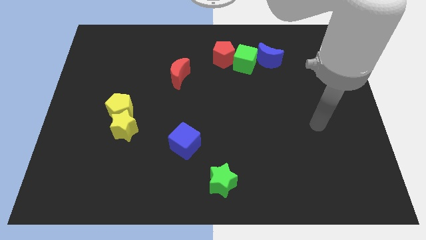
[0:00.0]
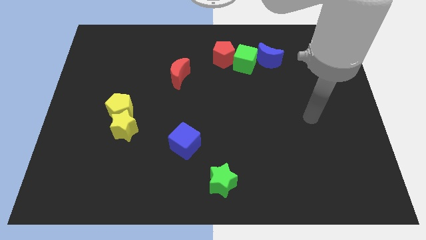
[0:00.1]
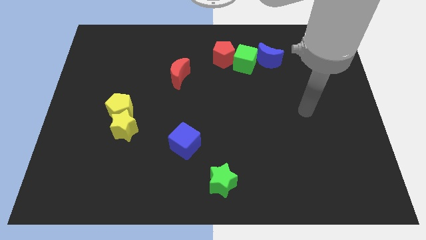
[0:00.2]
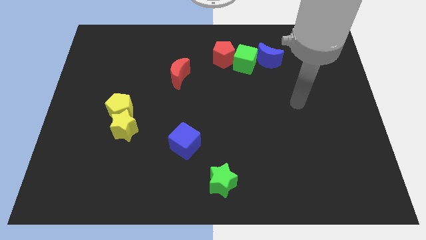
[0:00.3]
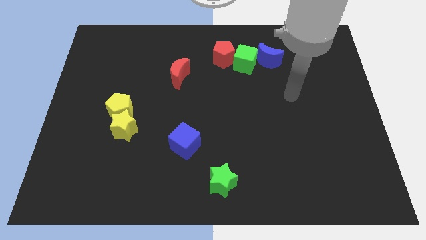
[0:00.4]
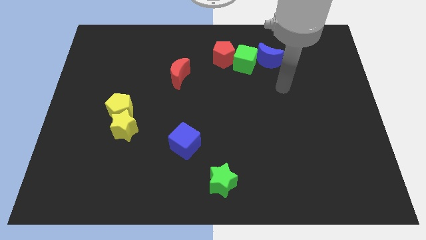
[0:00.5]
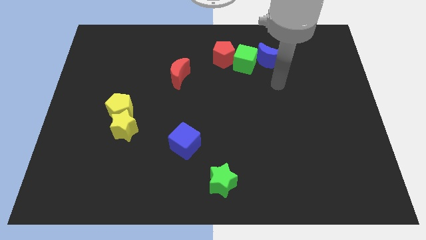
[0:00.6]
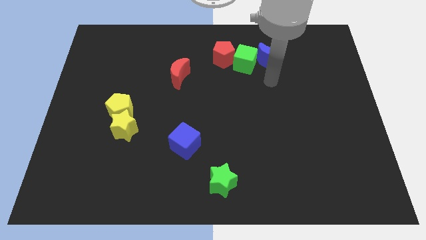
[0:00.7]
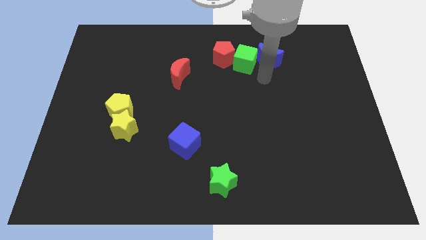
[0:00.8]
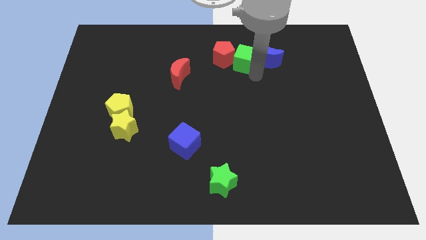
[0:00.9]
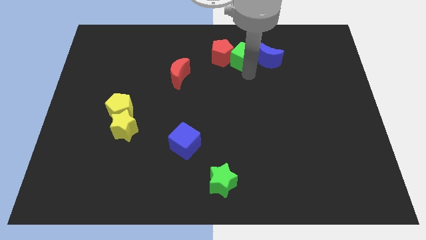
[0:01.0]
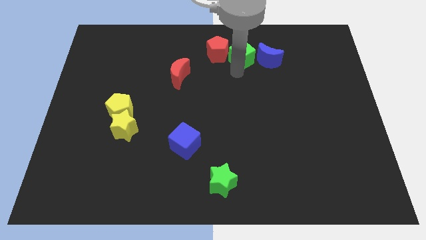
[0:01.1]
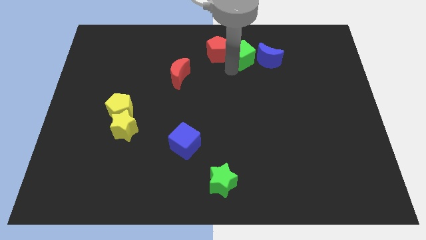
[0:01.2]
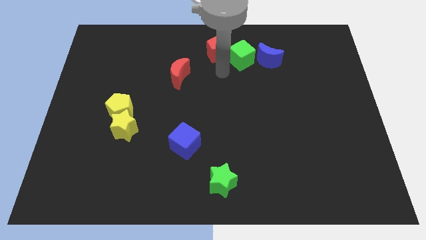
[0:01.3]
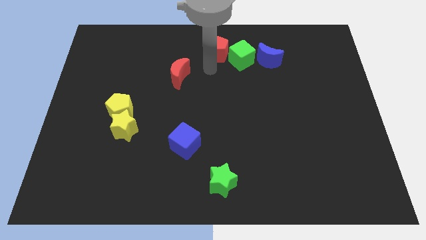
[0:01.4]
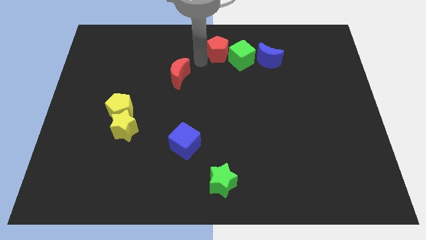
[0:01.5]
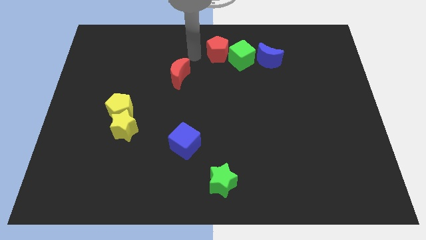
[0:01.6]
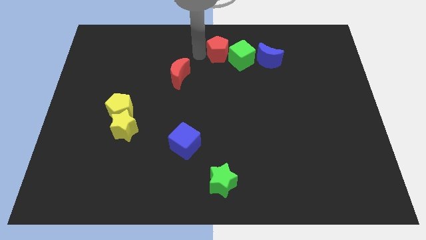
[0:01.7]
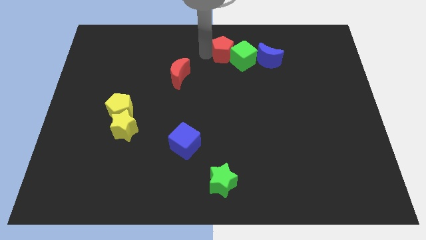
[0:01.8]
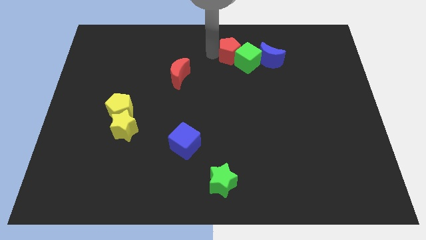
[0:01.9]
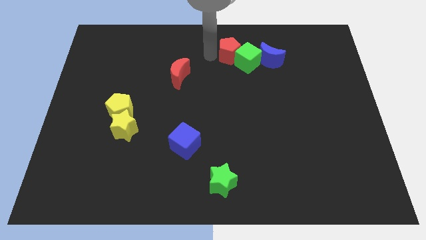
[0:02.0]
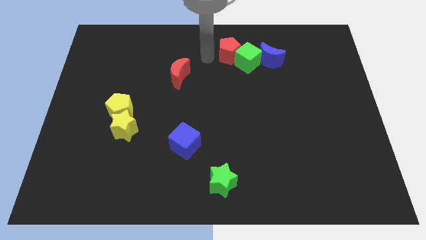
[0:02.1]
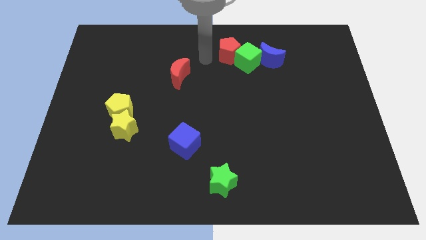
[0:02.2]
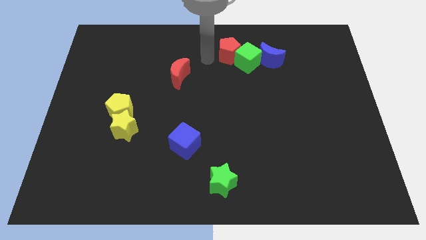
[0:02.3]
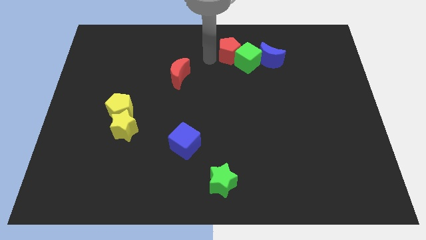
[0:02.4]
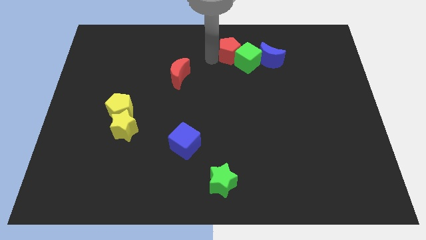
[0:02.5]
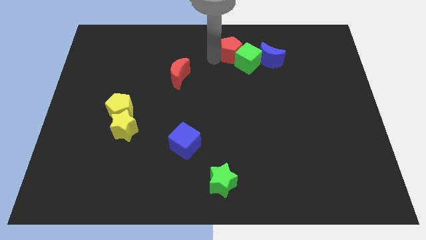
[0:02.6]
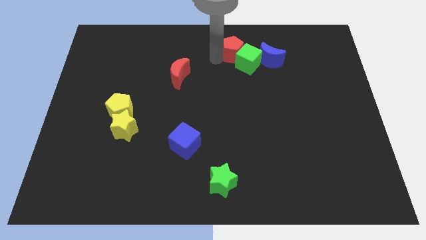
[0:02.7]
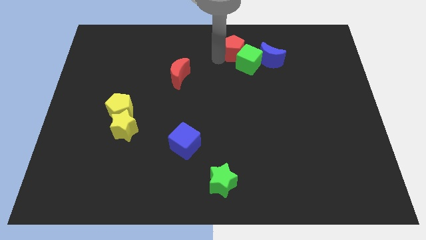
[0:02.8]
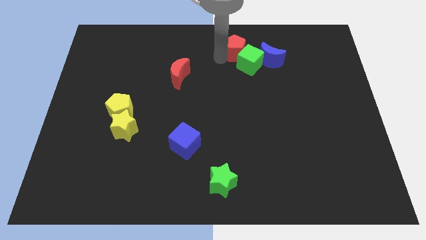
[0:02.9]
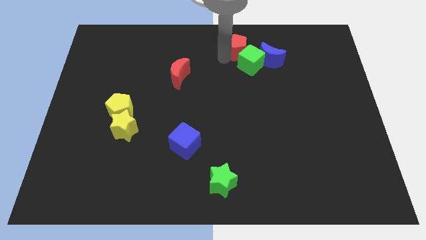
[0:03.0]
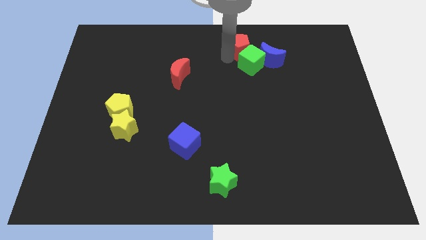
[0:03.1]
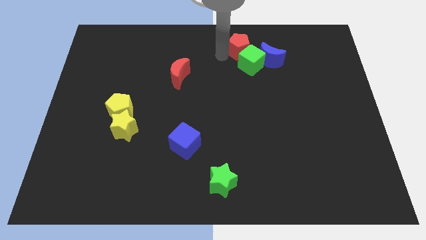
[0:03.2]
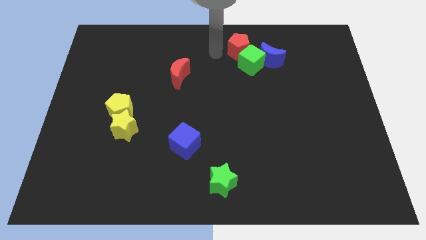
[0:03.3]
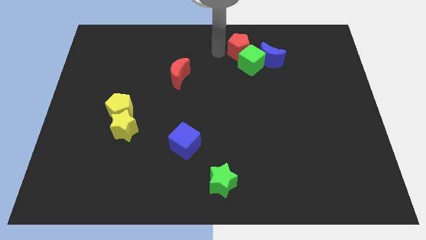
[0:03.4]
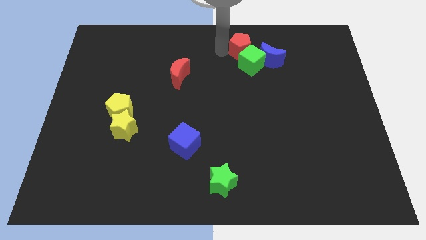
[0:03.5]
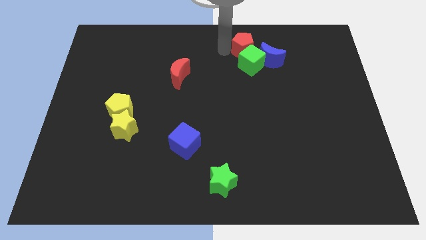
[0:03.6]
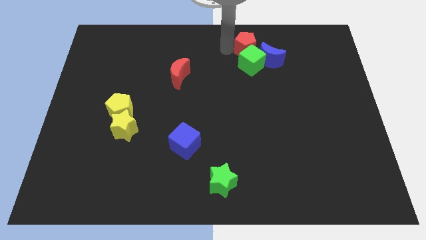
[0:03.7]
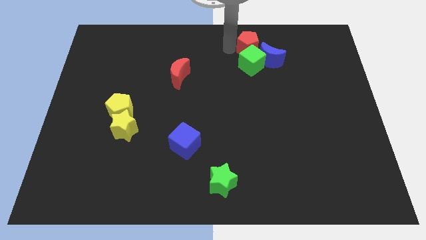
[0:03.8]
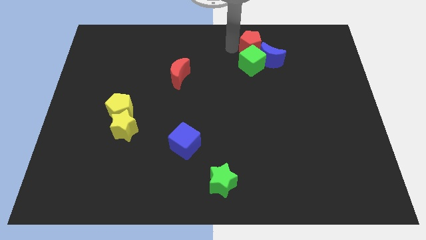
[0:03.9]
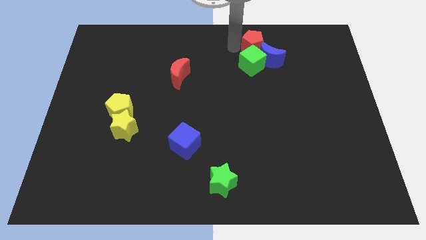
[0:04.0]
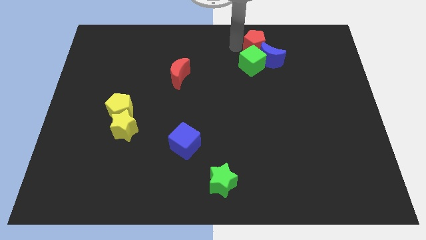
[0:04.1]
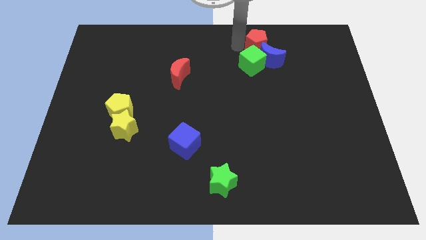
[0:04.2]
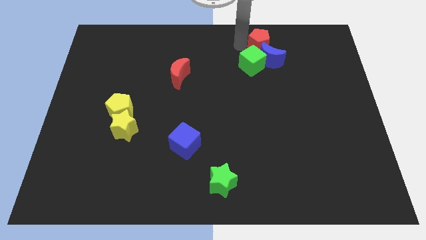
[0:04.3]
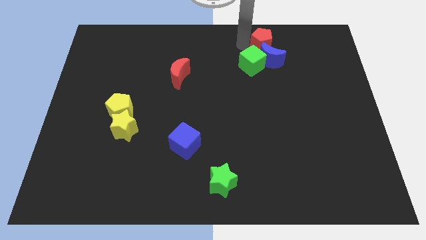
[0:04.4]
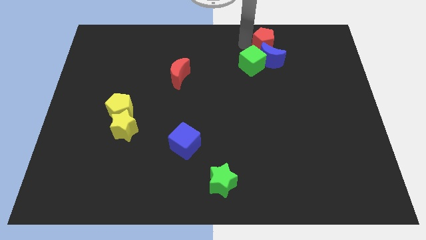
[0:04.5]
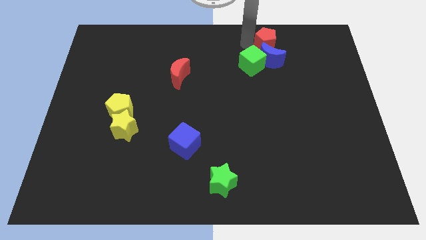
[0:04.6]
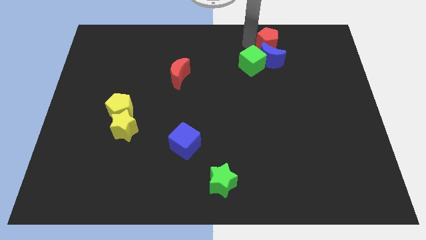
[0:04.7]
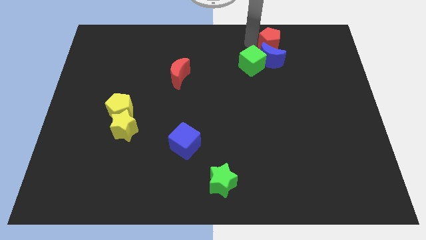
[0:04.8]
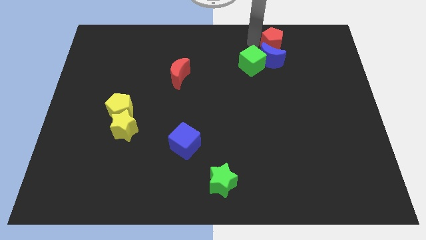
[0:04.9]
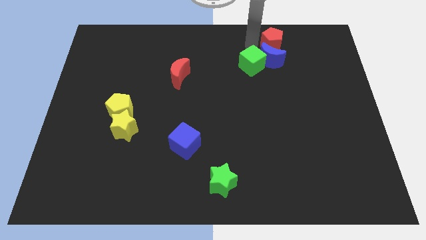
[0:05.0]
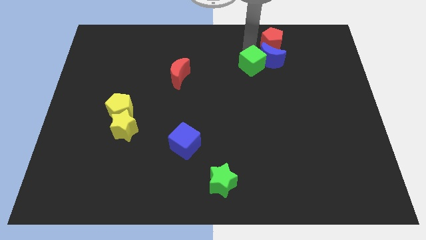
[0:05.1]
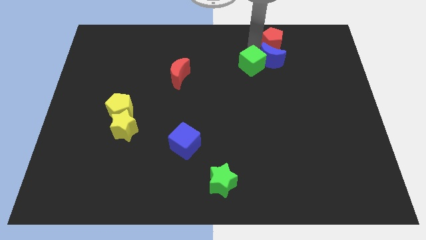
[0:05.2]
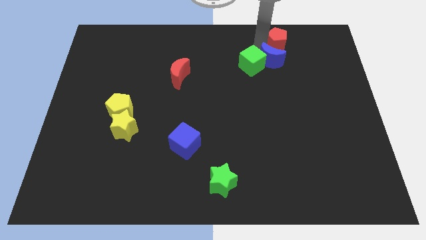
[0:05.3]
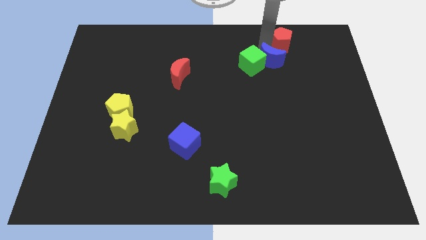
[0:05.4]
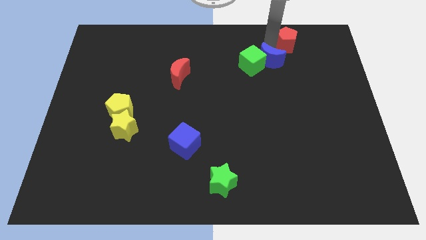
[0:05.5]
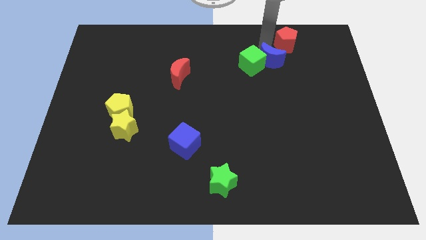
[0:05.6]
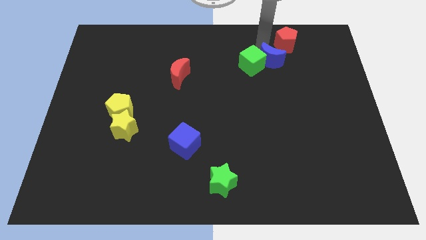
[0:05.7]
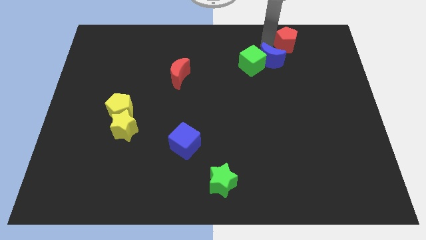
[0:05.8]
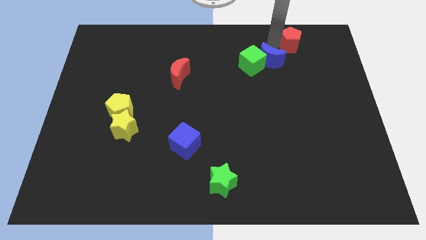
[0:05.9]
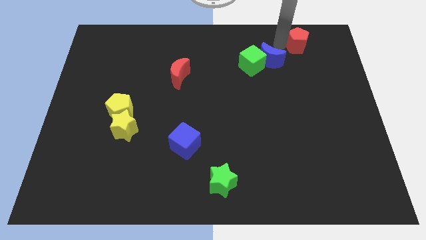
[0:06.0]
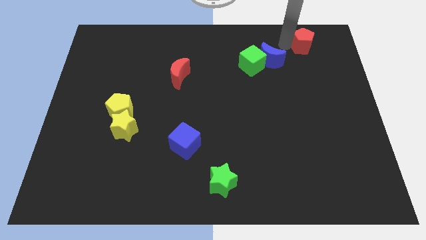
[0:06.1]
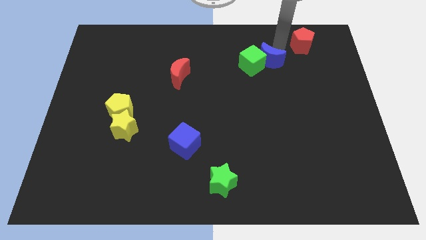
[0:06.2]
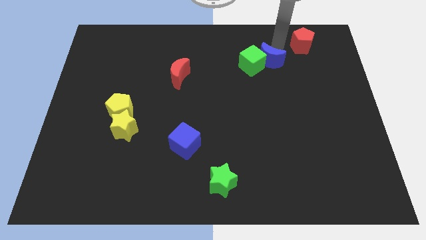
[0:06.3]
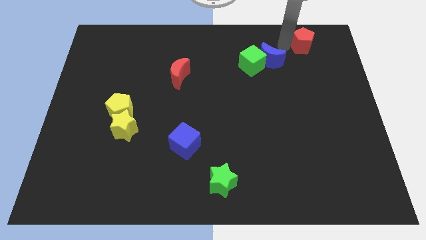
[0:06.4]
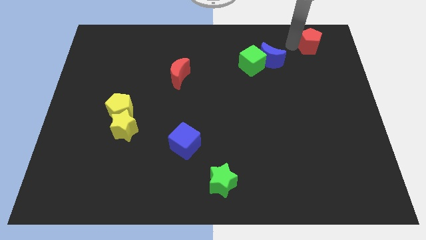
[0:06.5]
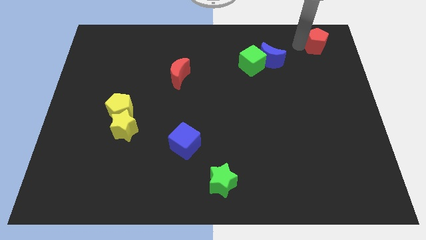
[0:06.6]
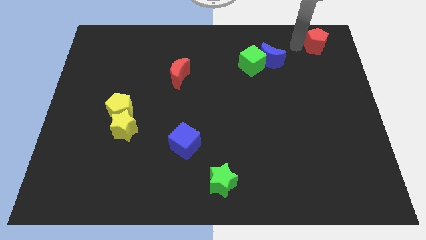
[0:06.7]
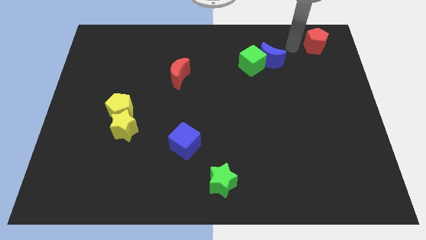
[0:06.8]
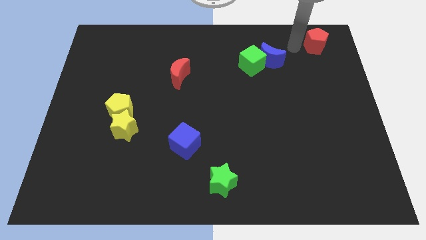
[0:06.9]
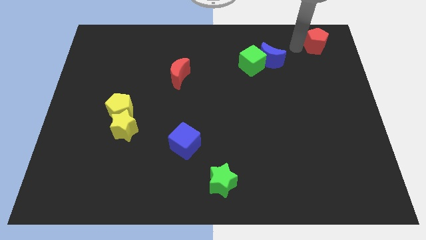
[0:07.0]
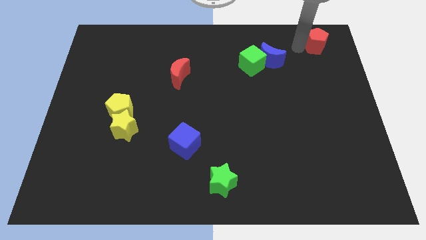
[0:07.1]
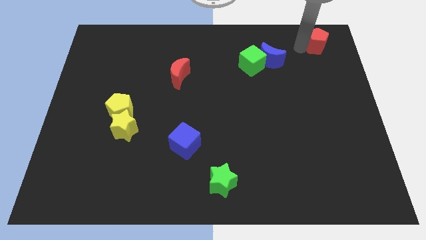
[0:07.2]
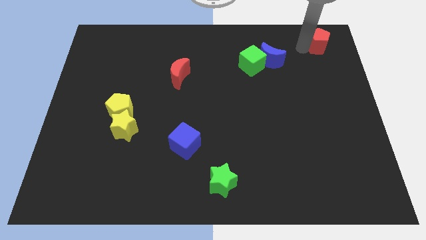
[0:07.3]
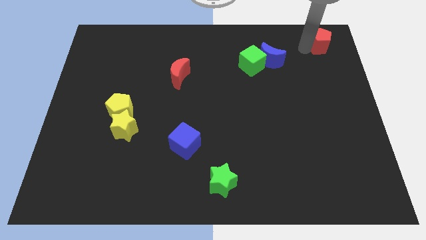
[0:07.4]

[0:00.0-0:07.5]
slide the red pentagon to the top right corner
